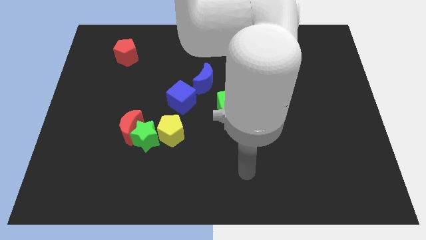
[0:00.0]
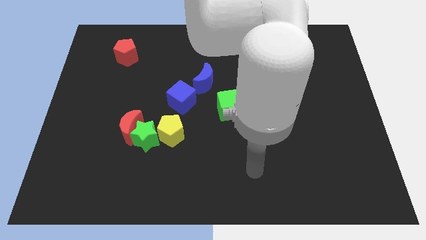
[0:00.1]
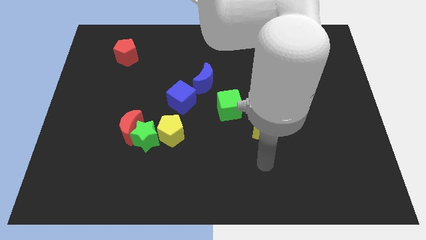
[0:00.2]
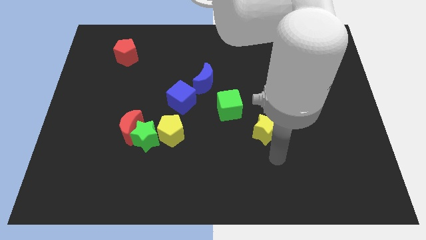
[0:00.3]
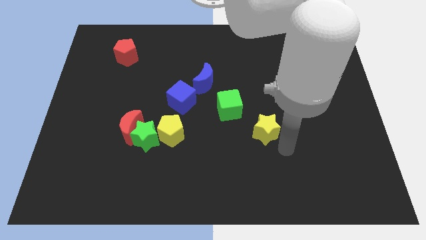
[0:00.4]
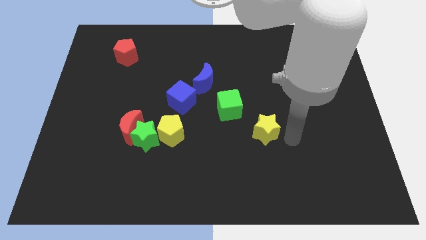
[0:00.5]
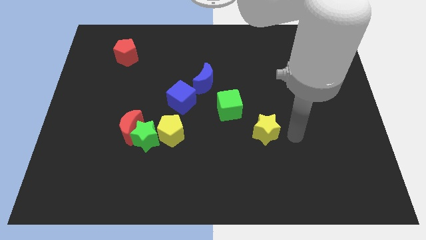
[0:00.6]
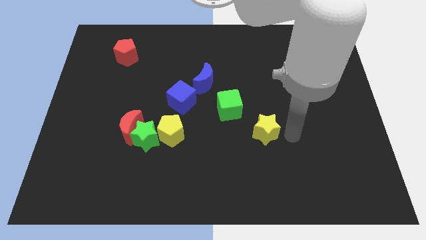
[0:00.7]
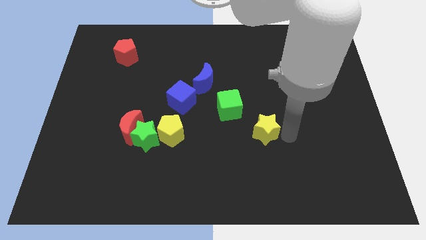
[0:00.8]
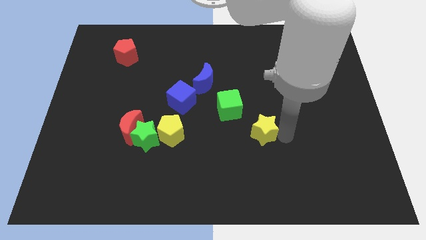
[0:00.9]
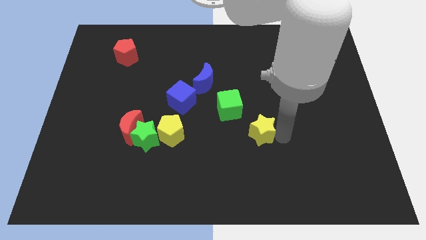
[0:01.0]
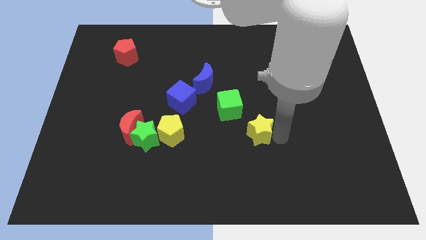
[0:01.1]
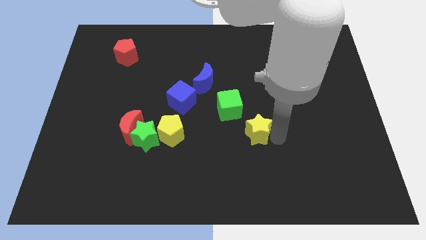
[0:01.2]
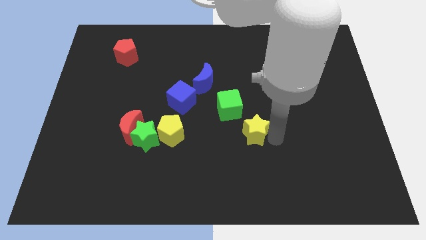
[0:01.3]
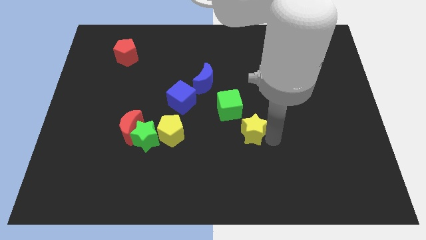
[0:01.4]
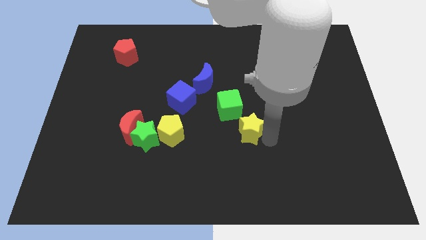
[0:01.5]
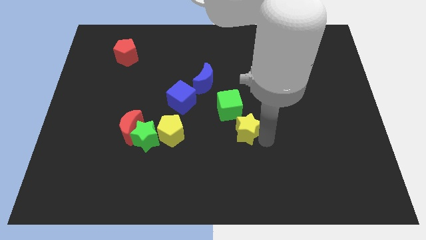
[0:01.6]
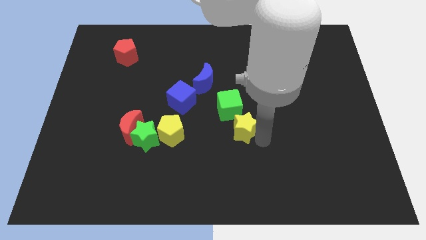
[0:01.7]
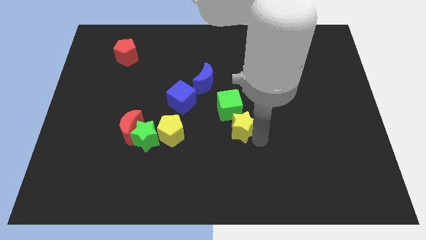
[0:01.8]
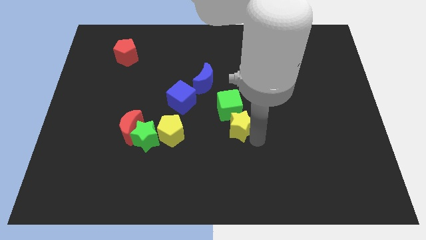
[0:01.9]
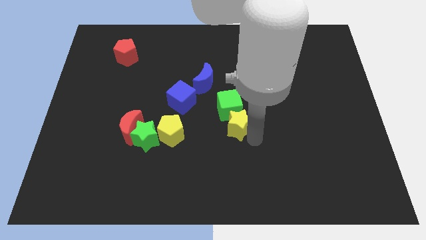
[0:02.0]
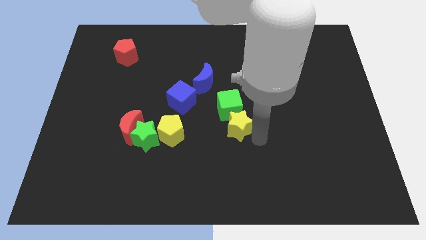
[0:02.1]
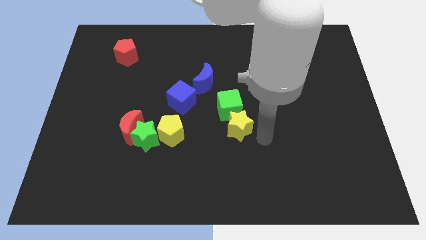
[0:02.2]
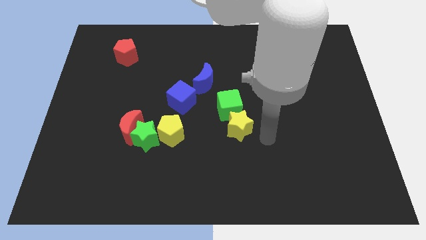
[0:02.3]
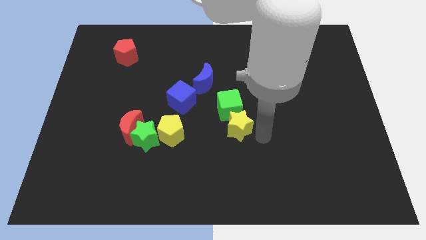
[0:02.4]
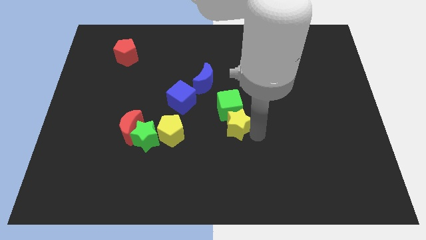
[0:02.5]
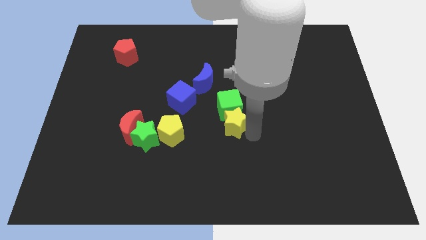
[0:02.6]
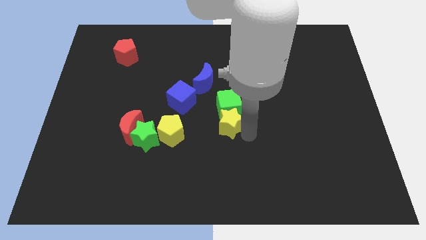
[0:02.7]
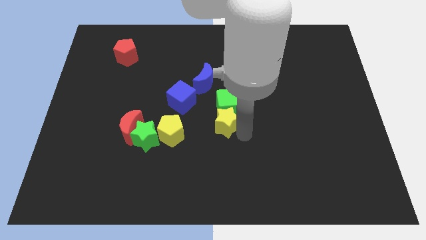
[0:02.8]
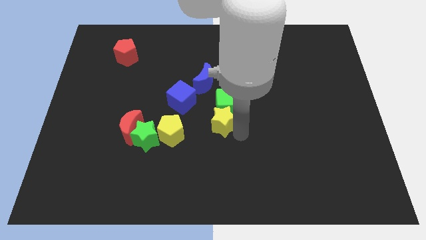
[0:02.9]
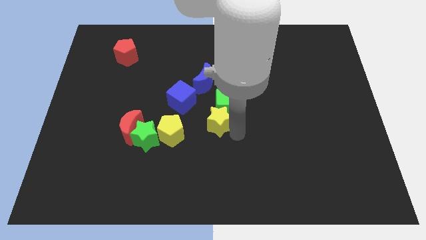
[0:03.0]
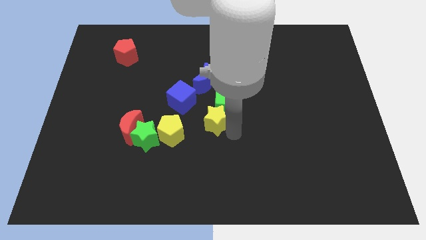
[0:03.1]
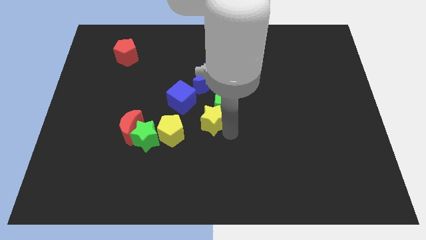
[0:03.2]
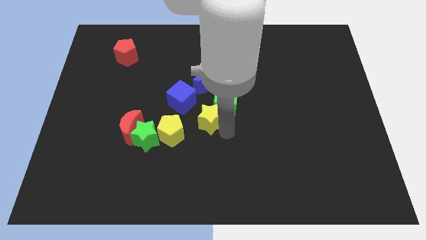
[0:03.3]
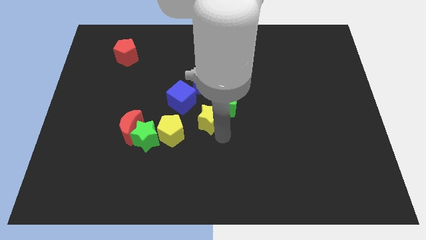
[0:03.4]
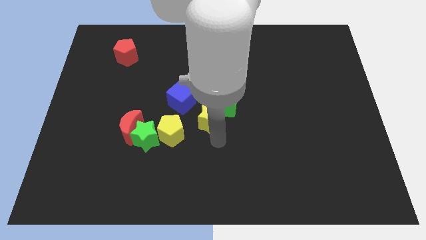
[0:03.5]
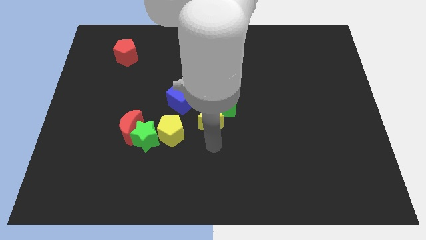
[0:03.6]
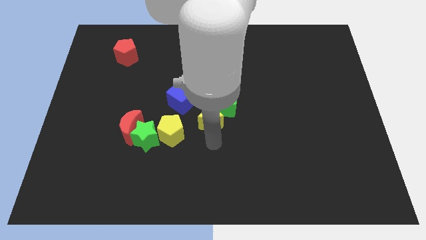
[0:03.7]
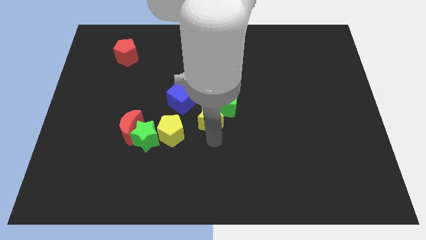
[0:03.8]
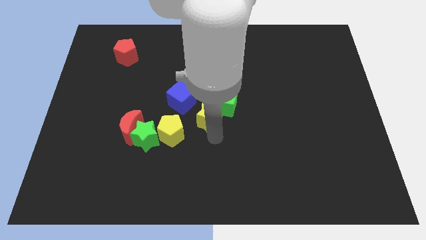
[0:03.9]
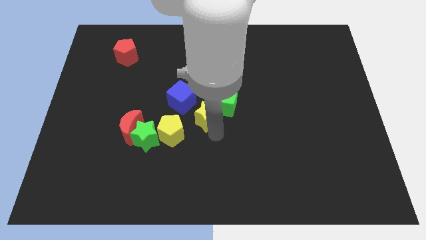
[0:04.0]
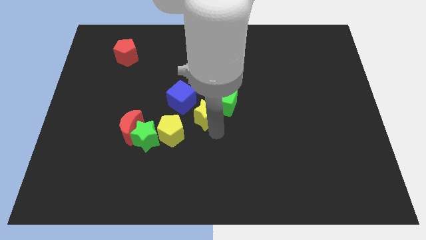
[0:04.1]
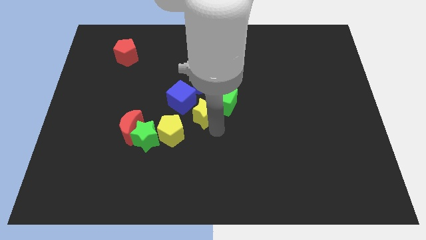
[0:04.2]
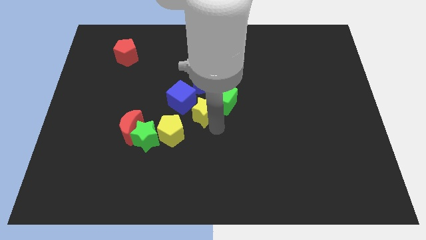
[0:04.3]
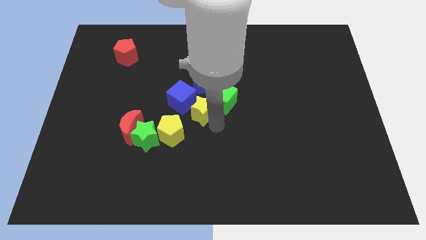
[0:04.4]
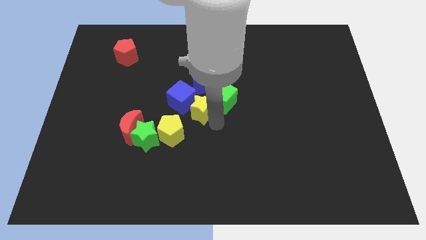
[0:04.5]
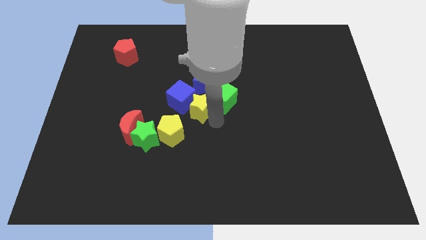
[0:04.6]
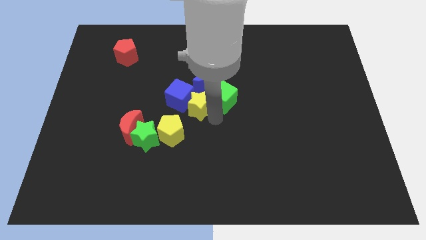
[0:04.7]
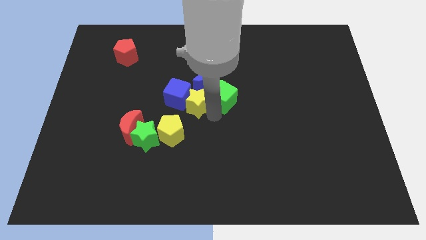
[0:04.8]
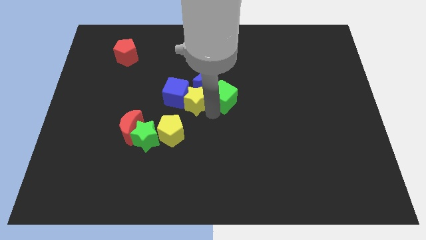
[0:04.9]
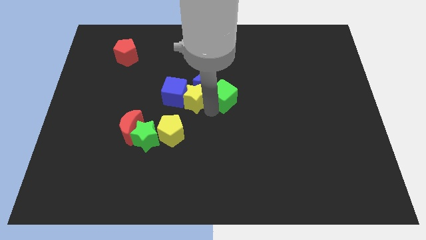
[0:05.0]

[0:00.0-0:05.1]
move the yellow star next to the blue moon

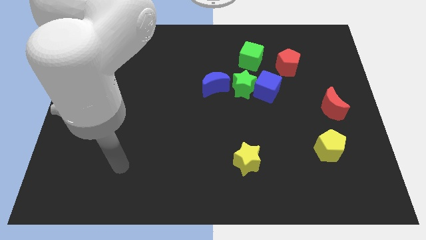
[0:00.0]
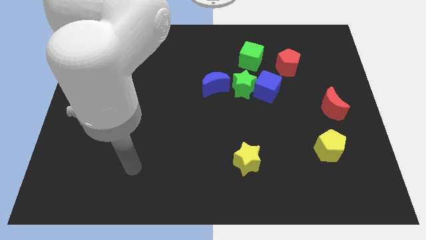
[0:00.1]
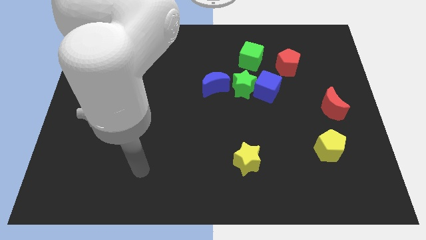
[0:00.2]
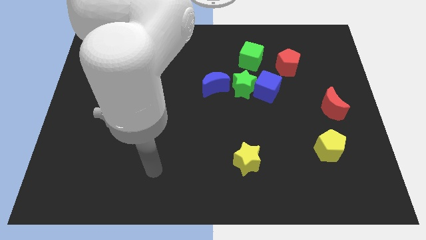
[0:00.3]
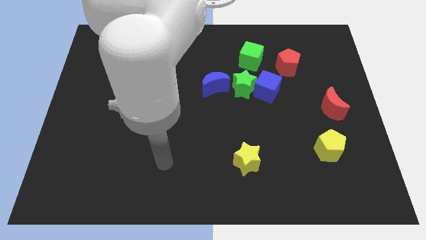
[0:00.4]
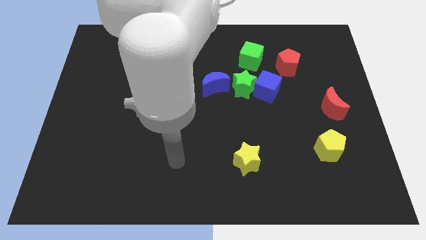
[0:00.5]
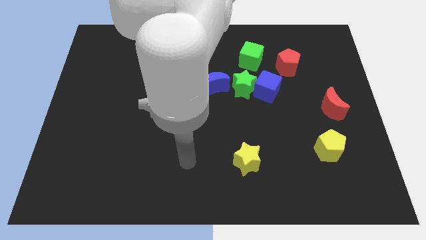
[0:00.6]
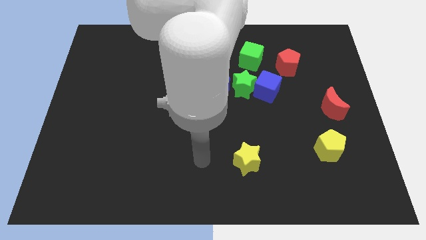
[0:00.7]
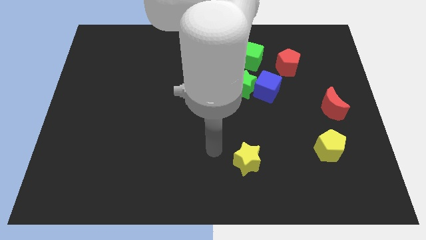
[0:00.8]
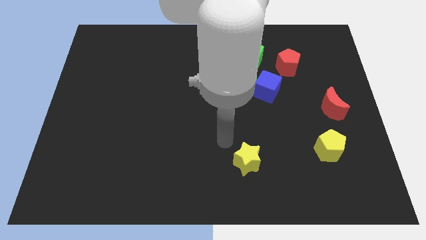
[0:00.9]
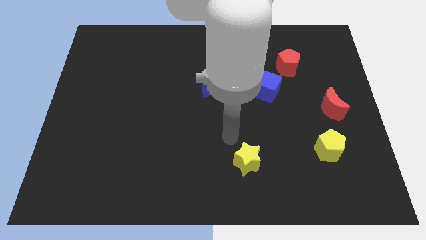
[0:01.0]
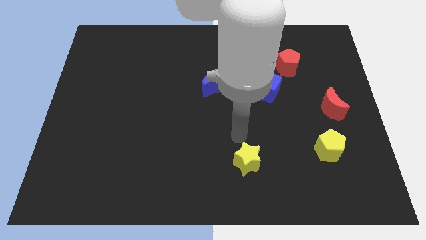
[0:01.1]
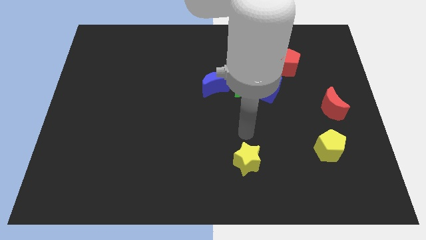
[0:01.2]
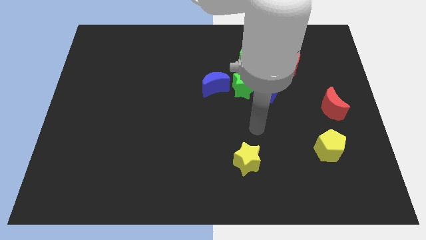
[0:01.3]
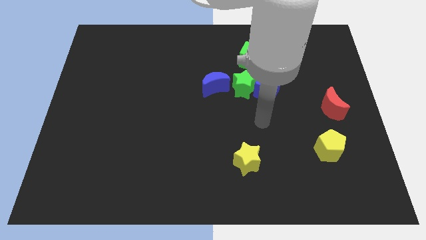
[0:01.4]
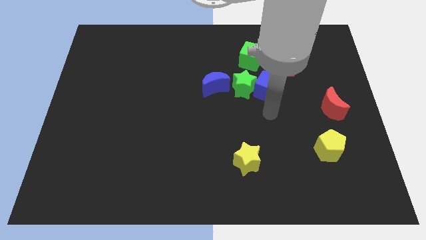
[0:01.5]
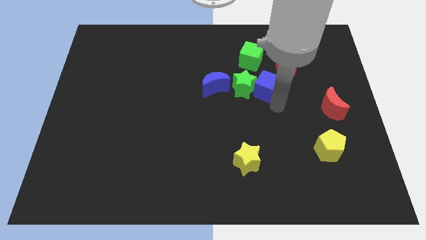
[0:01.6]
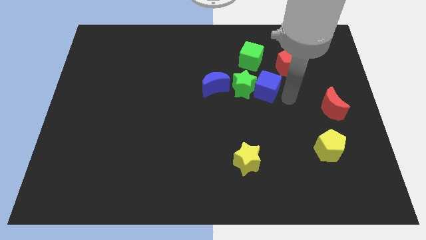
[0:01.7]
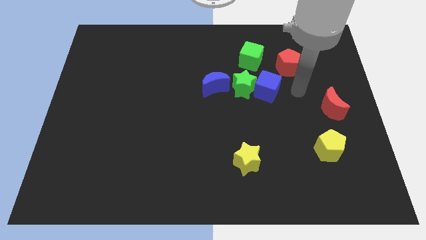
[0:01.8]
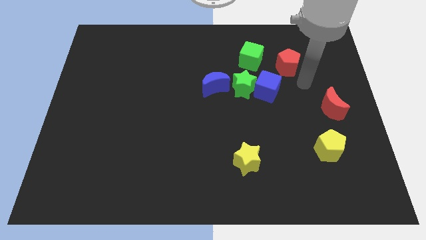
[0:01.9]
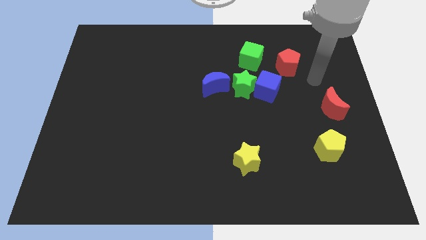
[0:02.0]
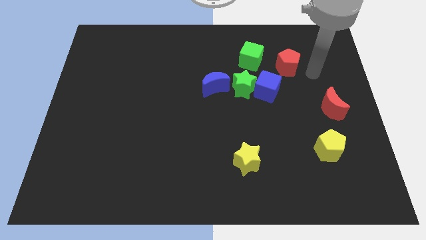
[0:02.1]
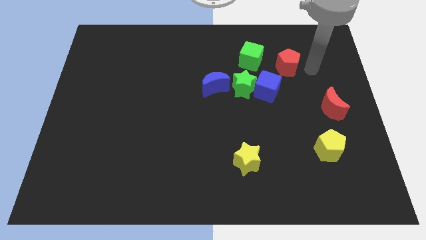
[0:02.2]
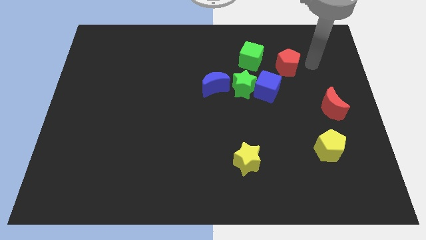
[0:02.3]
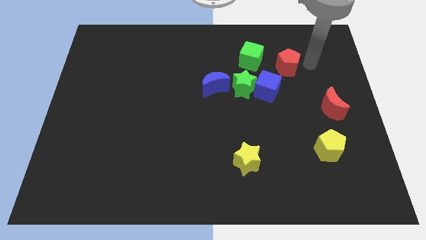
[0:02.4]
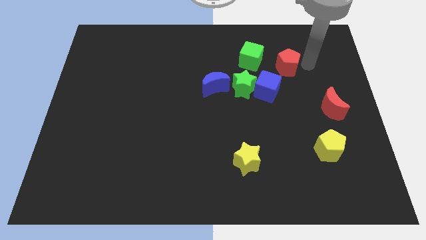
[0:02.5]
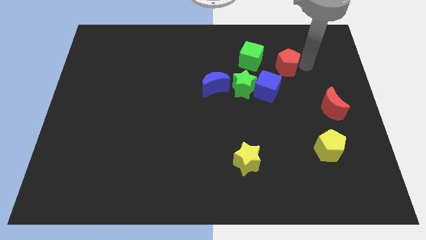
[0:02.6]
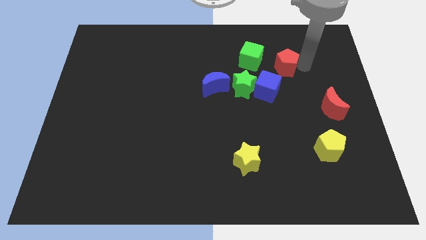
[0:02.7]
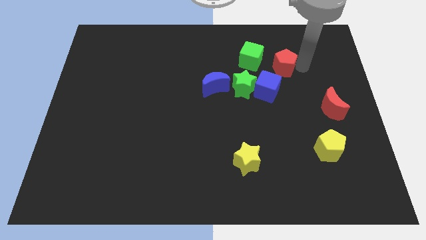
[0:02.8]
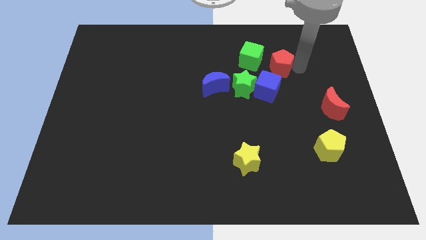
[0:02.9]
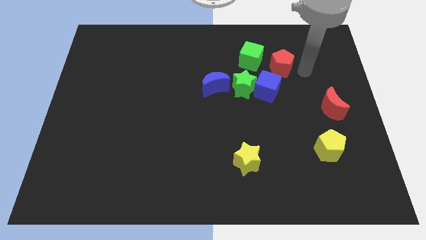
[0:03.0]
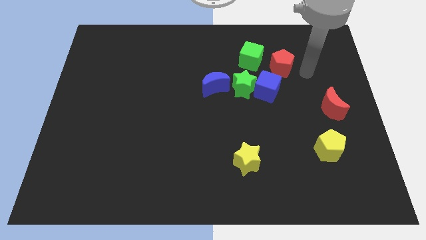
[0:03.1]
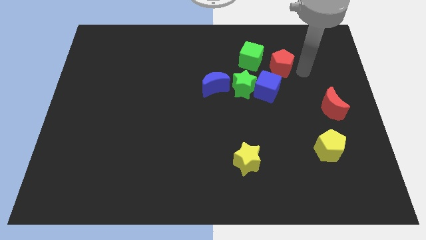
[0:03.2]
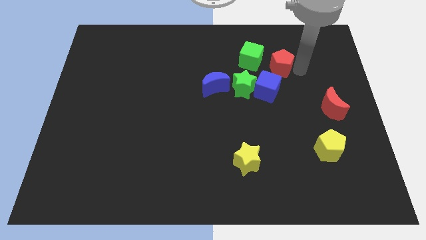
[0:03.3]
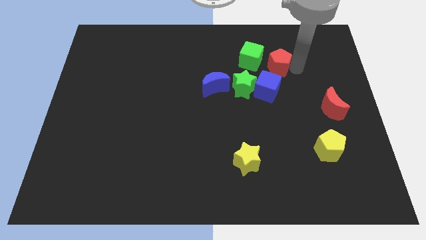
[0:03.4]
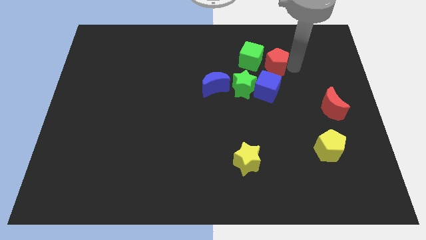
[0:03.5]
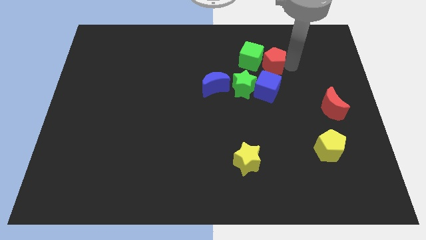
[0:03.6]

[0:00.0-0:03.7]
slide the red pentagon next to the green cube
